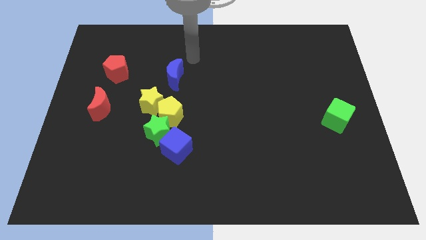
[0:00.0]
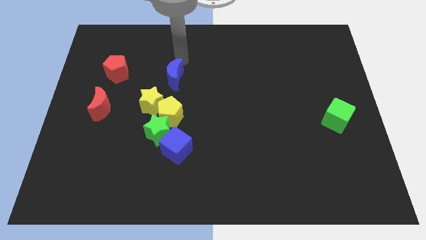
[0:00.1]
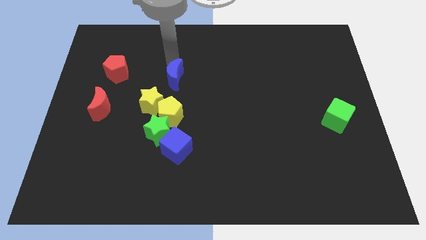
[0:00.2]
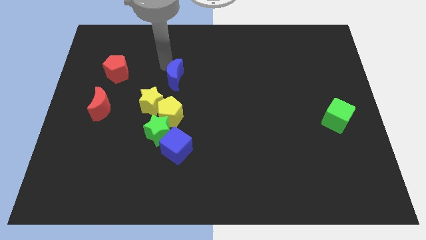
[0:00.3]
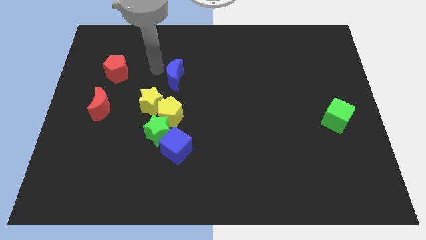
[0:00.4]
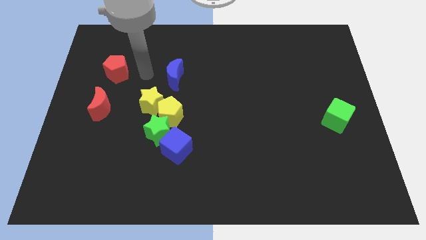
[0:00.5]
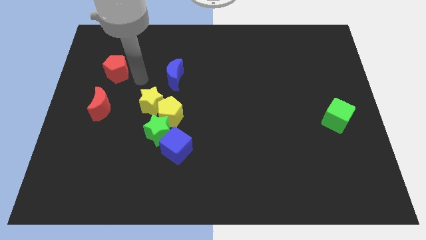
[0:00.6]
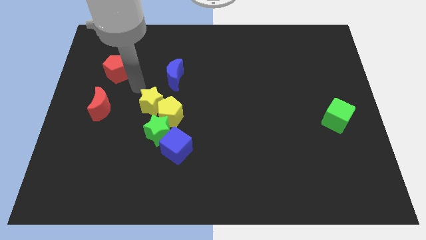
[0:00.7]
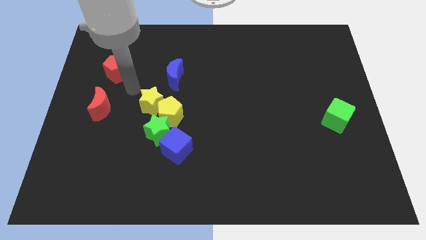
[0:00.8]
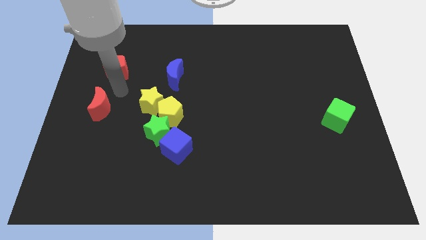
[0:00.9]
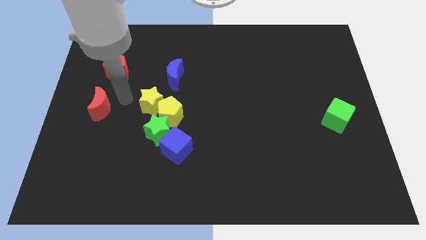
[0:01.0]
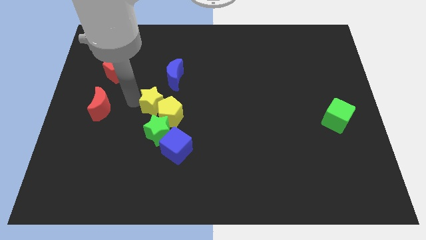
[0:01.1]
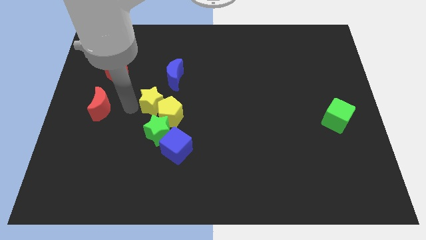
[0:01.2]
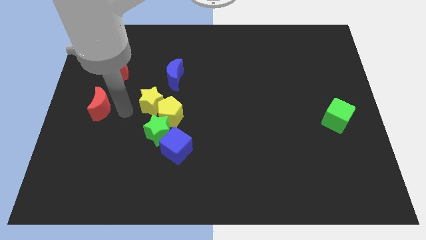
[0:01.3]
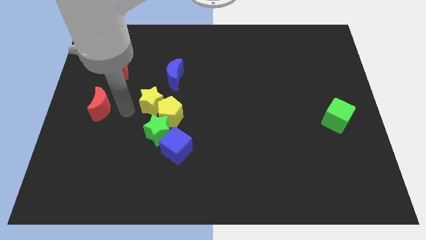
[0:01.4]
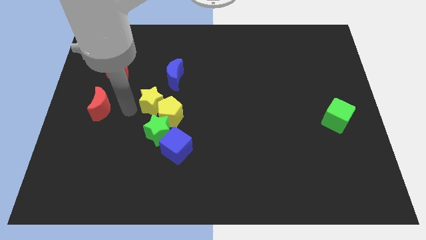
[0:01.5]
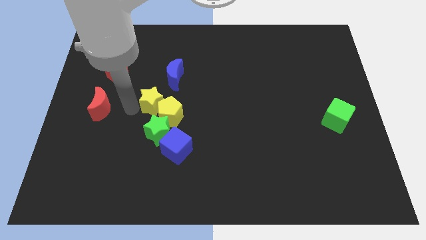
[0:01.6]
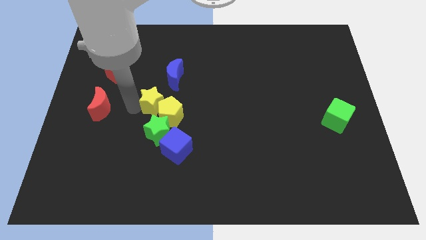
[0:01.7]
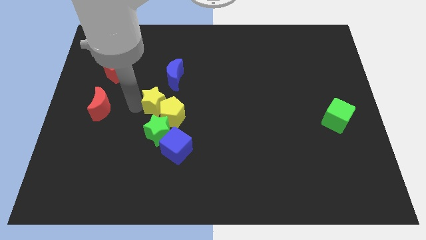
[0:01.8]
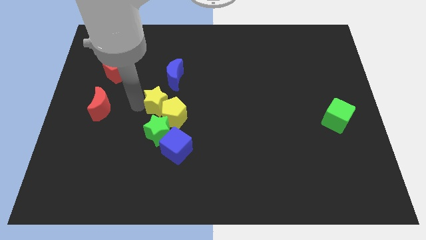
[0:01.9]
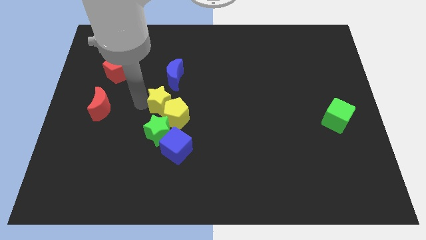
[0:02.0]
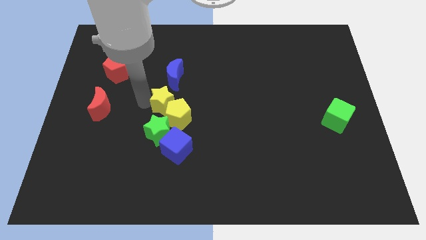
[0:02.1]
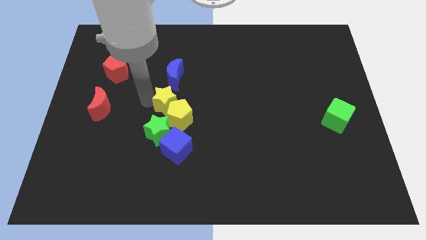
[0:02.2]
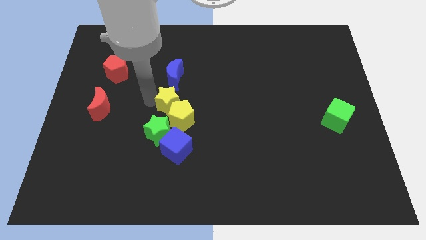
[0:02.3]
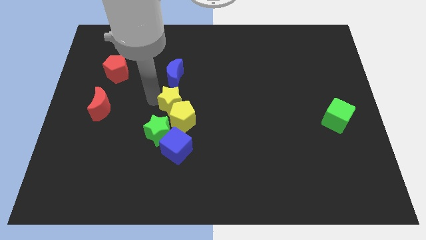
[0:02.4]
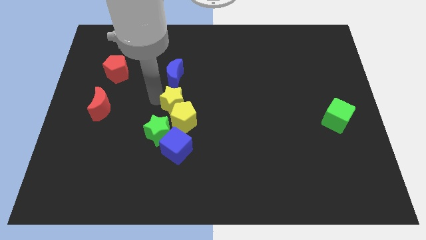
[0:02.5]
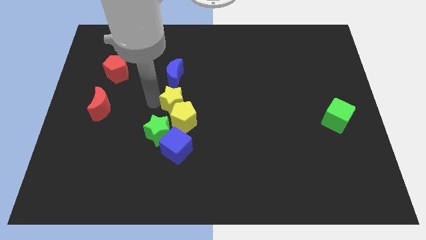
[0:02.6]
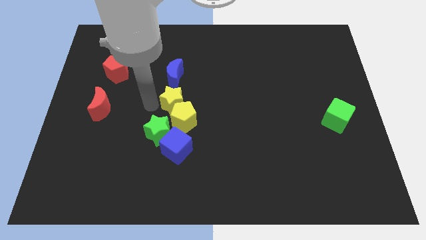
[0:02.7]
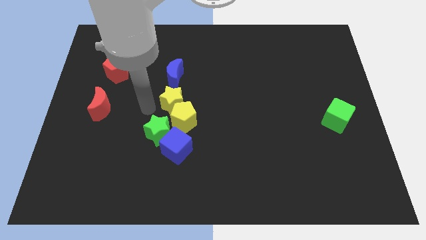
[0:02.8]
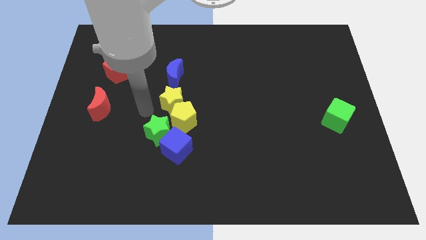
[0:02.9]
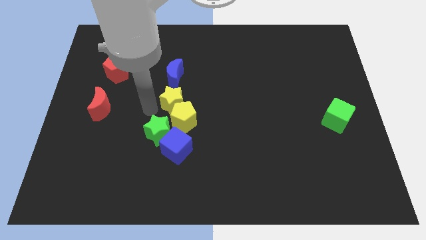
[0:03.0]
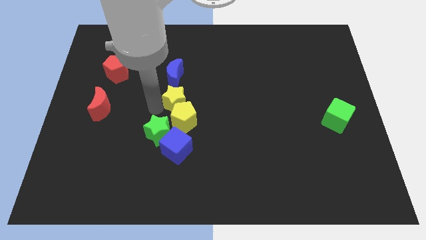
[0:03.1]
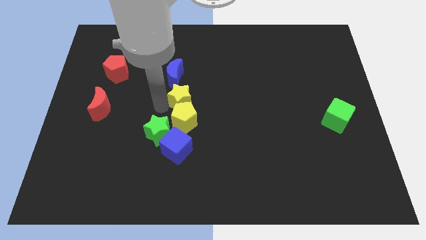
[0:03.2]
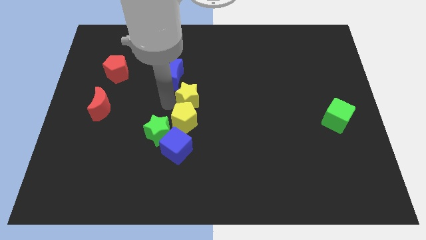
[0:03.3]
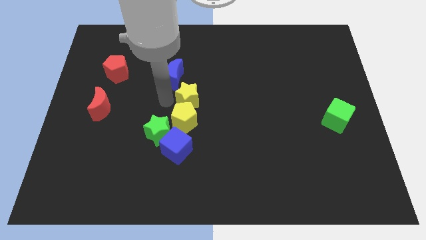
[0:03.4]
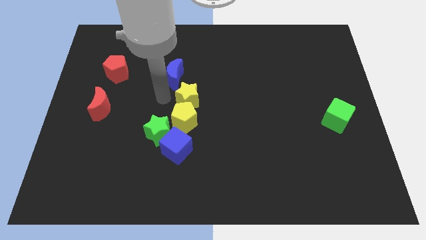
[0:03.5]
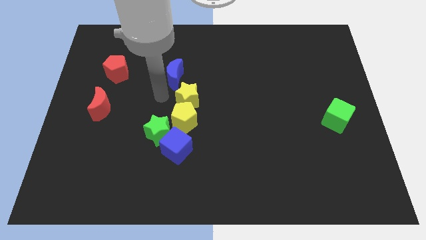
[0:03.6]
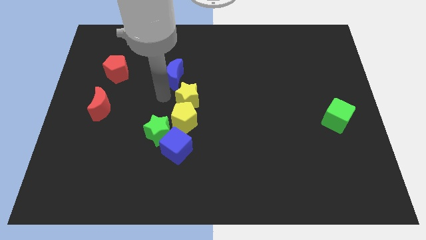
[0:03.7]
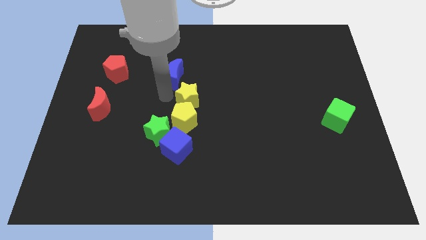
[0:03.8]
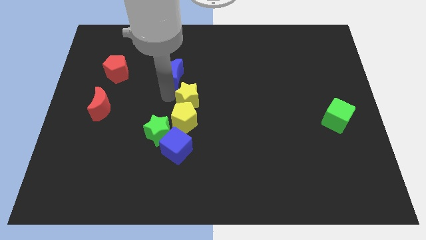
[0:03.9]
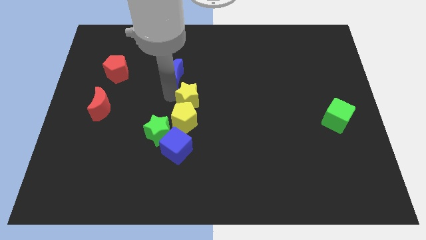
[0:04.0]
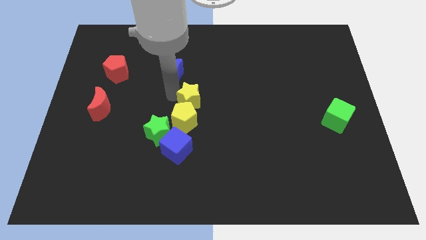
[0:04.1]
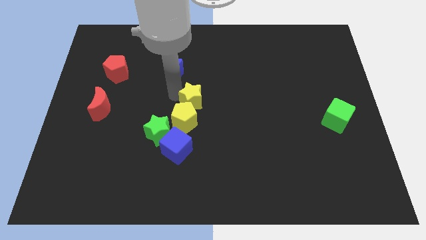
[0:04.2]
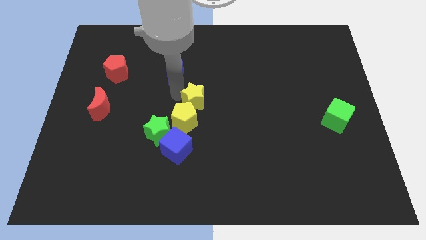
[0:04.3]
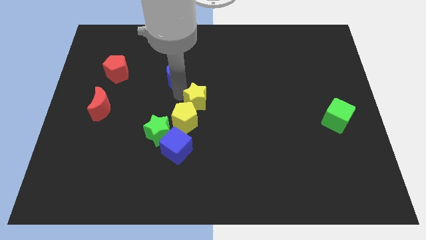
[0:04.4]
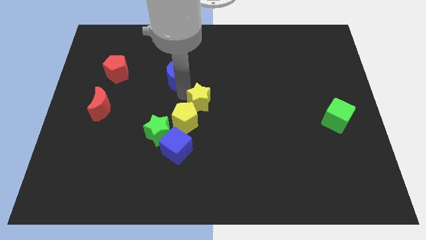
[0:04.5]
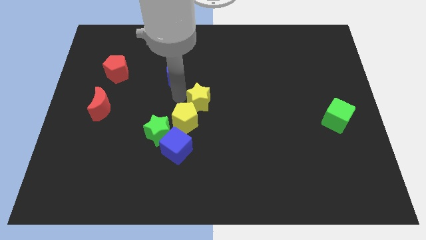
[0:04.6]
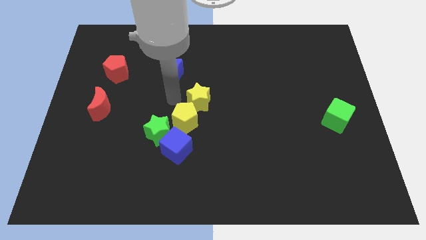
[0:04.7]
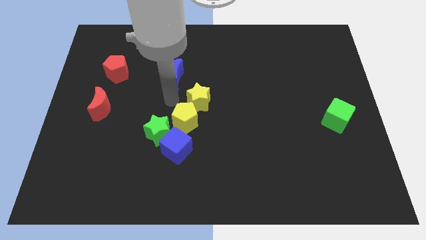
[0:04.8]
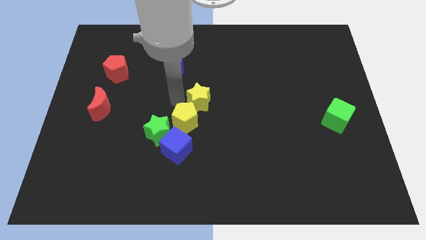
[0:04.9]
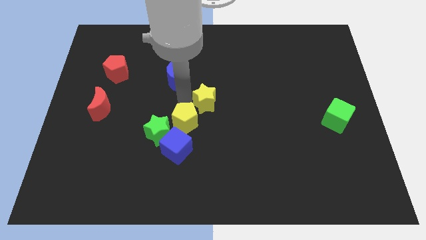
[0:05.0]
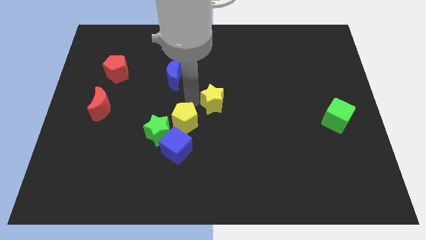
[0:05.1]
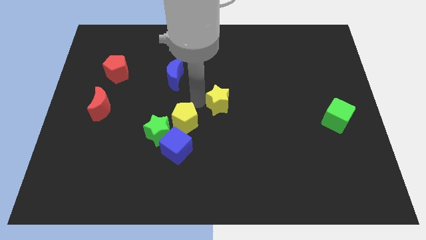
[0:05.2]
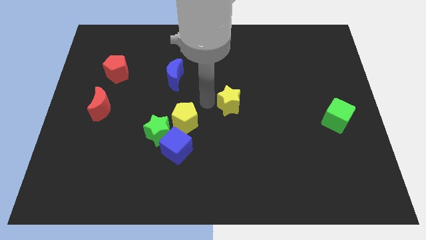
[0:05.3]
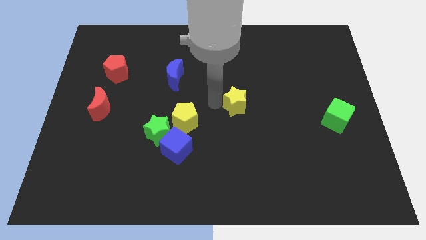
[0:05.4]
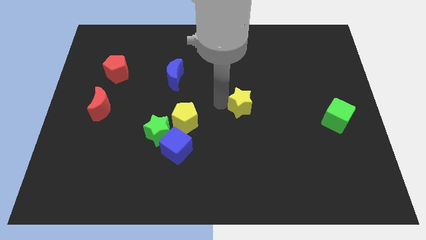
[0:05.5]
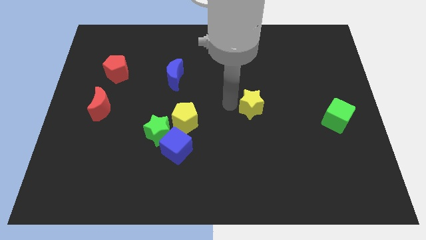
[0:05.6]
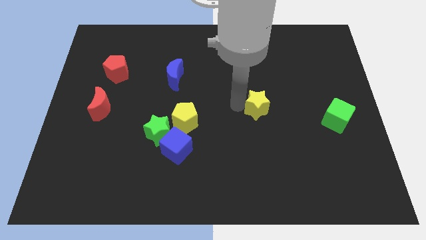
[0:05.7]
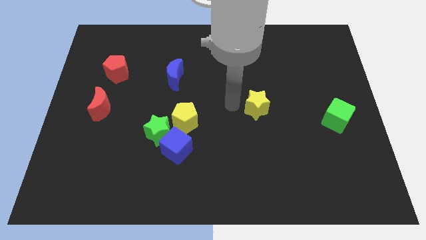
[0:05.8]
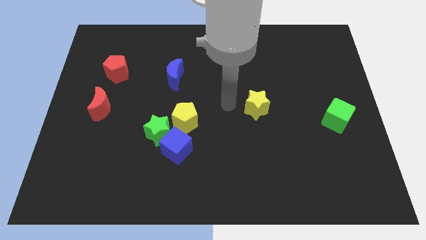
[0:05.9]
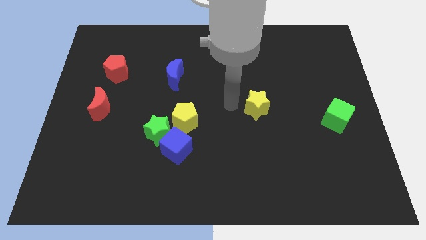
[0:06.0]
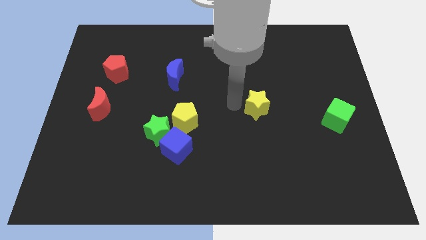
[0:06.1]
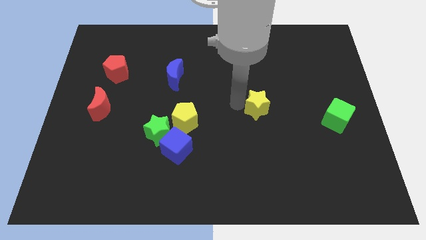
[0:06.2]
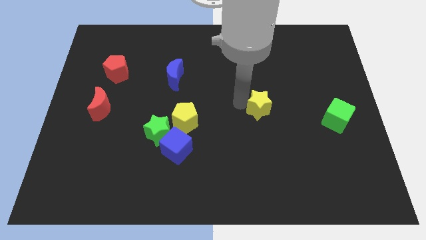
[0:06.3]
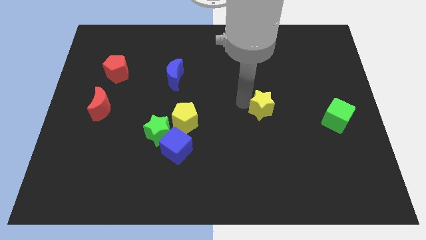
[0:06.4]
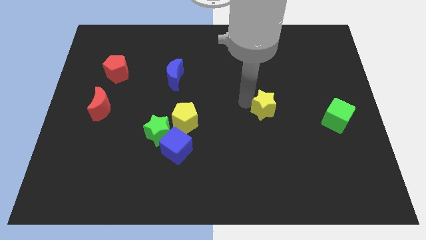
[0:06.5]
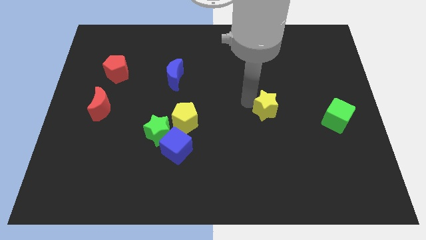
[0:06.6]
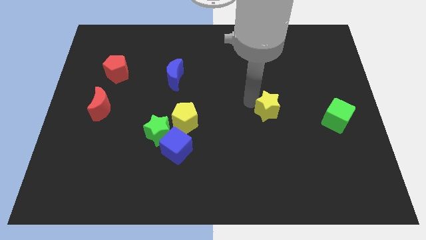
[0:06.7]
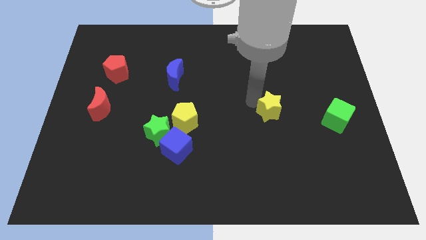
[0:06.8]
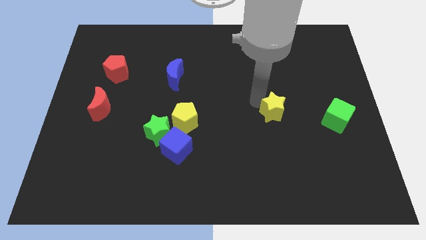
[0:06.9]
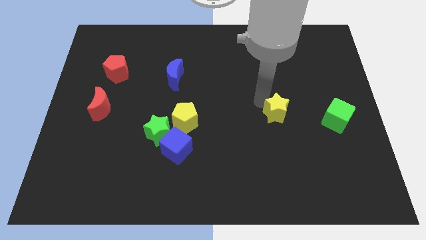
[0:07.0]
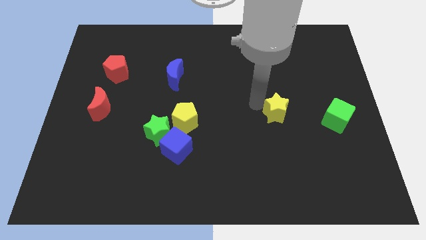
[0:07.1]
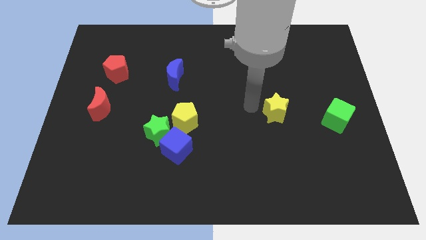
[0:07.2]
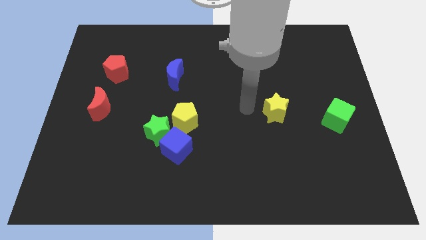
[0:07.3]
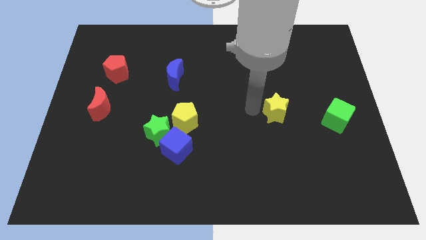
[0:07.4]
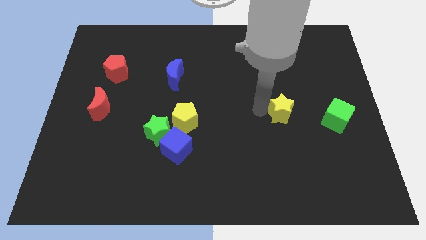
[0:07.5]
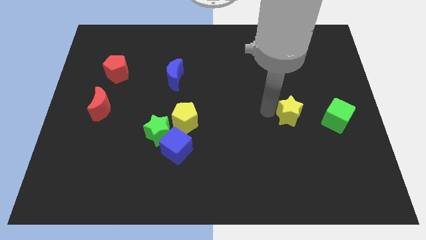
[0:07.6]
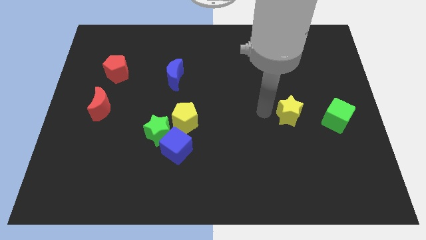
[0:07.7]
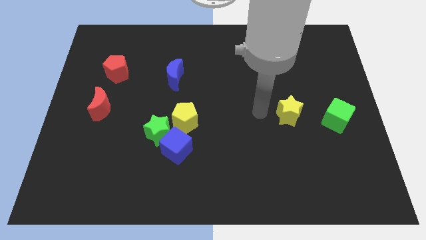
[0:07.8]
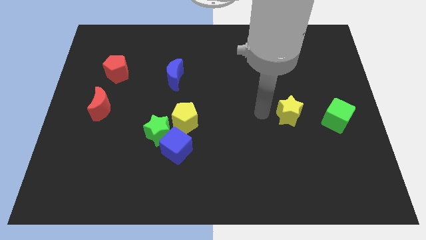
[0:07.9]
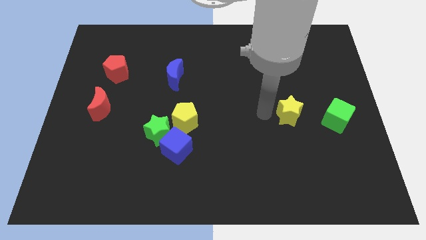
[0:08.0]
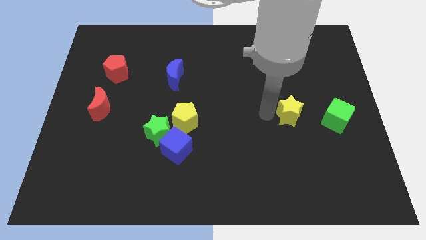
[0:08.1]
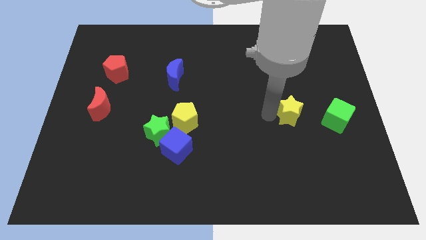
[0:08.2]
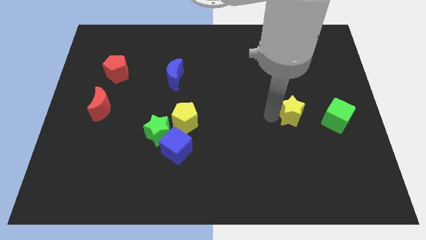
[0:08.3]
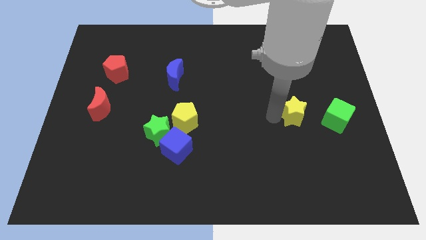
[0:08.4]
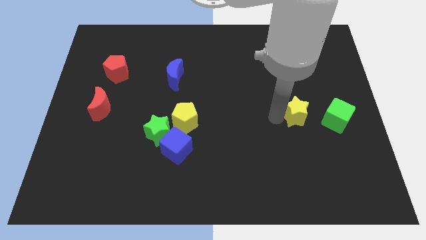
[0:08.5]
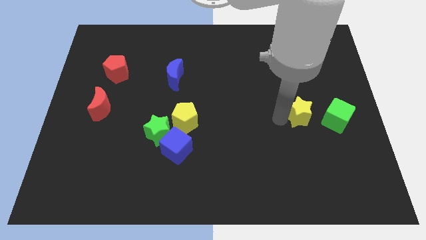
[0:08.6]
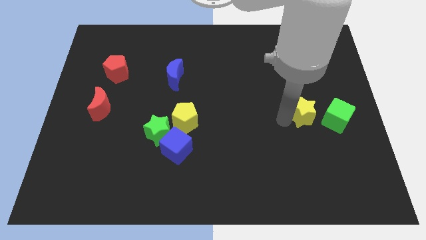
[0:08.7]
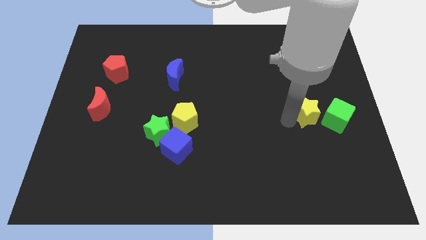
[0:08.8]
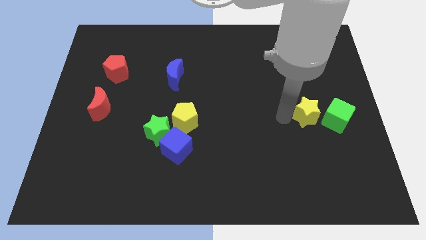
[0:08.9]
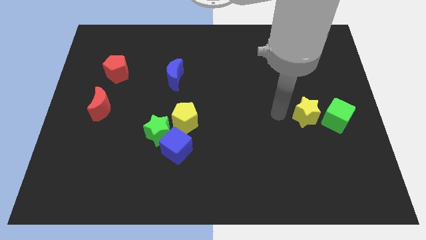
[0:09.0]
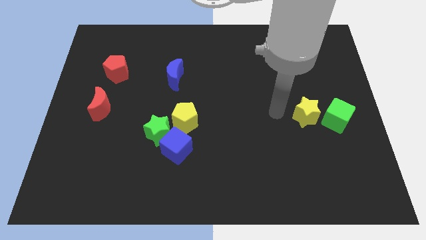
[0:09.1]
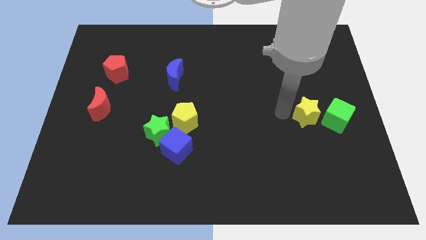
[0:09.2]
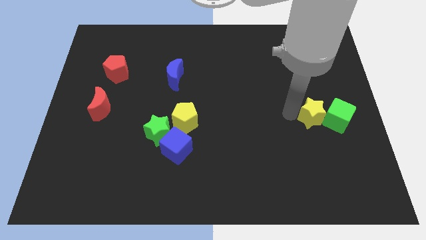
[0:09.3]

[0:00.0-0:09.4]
put the yellow star to the green cube
